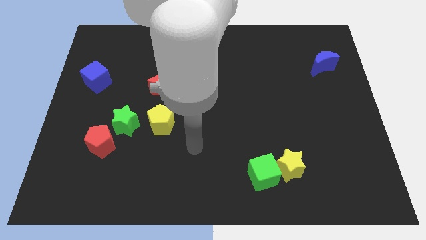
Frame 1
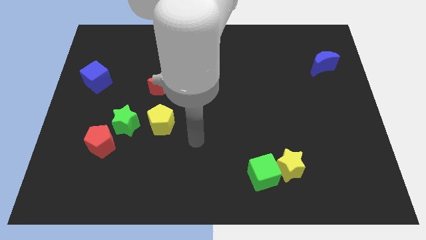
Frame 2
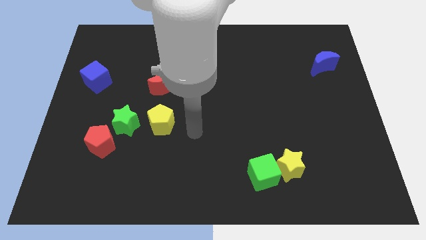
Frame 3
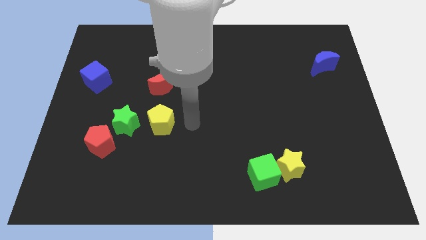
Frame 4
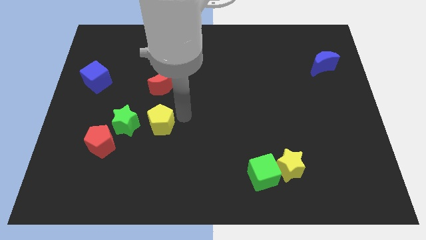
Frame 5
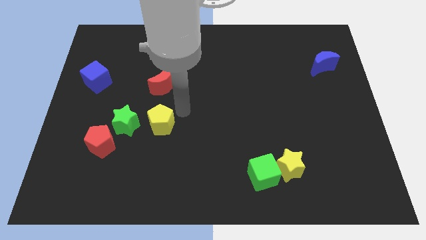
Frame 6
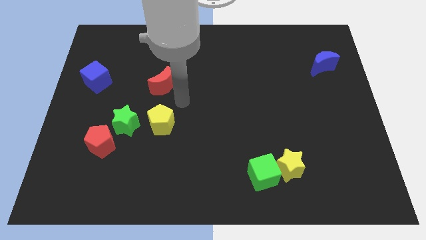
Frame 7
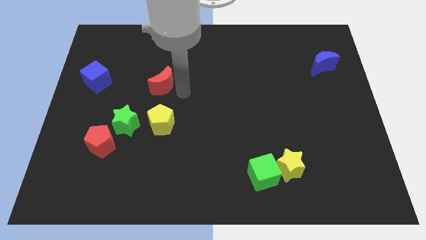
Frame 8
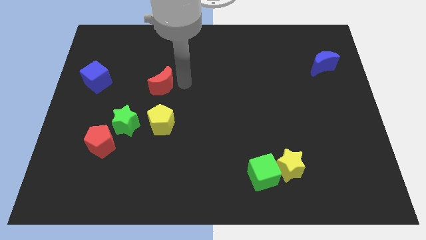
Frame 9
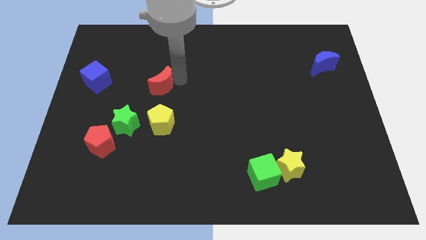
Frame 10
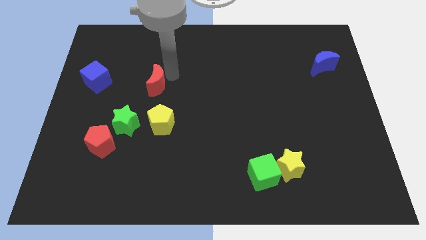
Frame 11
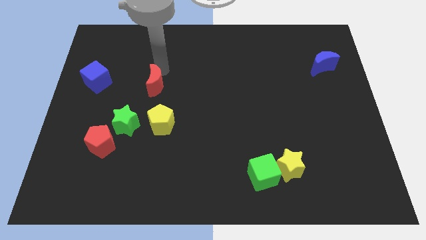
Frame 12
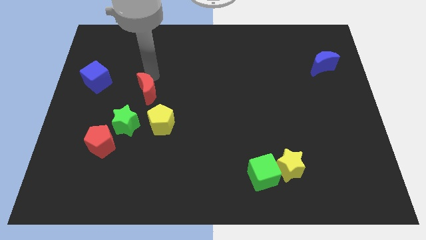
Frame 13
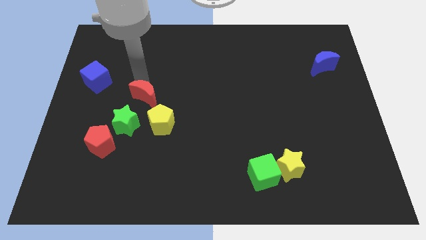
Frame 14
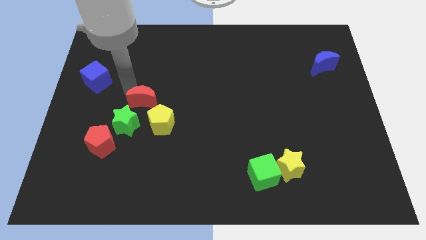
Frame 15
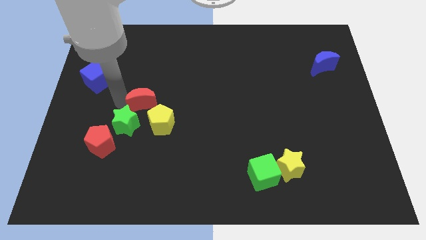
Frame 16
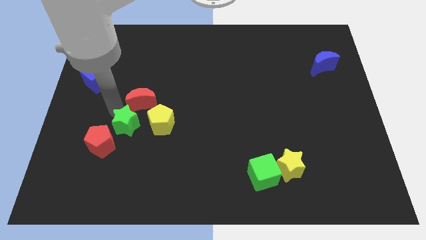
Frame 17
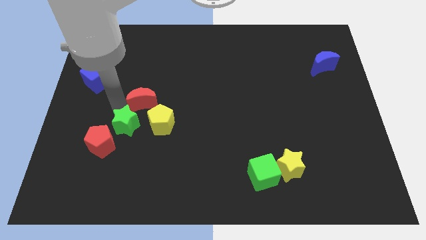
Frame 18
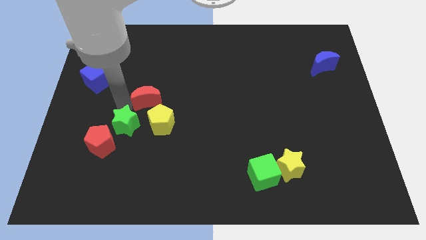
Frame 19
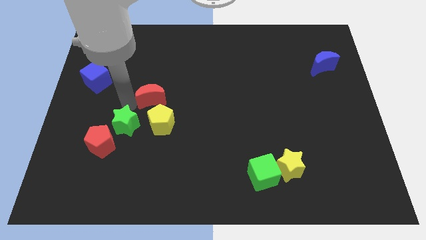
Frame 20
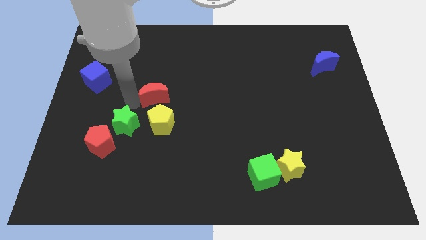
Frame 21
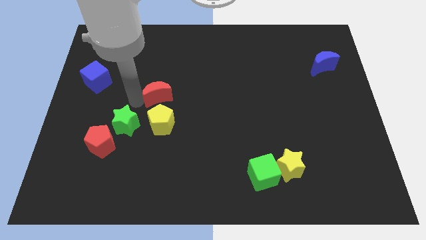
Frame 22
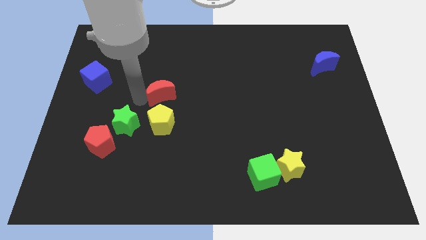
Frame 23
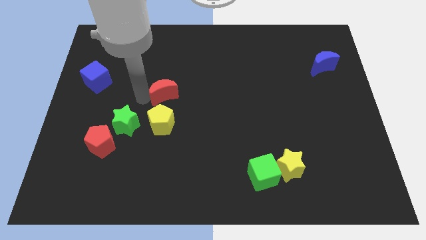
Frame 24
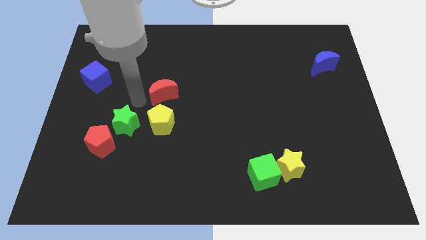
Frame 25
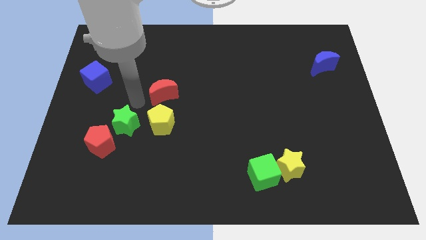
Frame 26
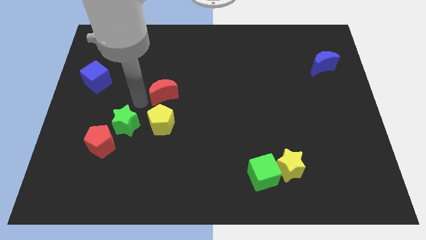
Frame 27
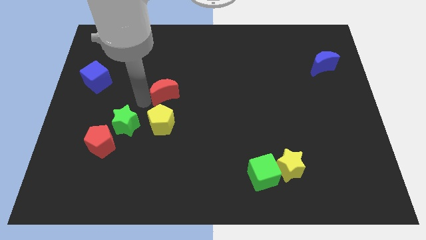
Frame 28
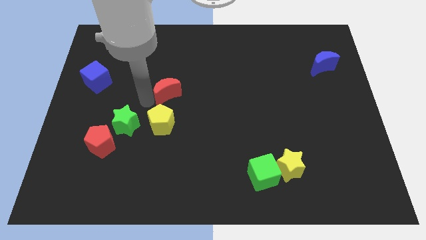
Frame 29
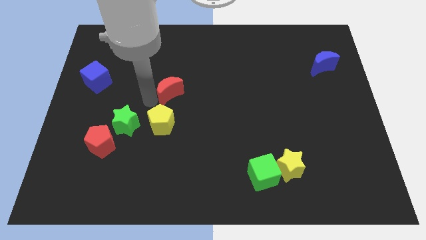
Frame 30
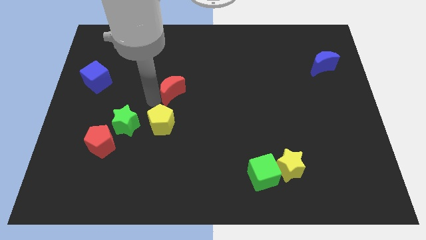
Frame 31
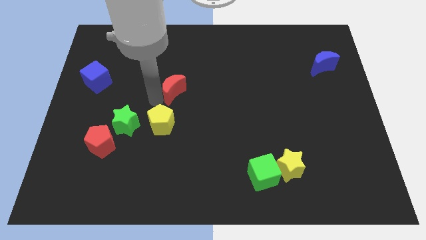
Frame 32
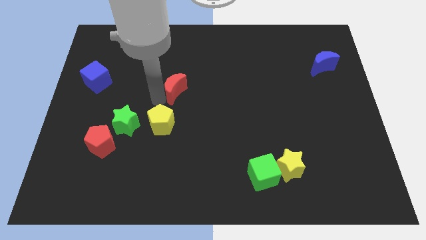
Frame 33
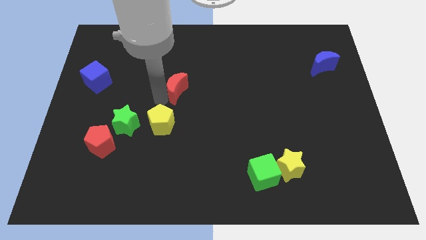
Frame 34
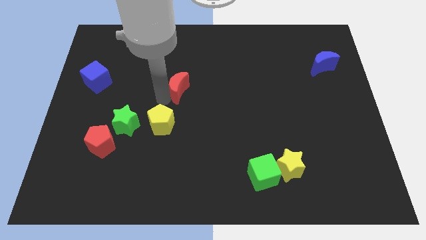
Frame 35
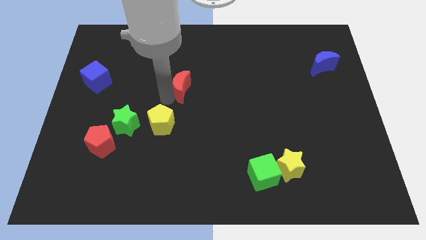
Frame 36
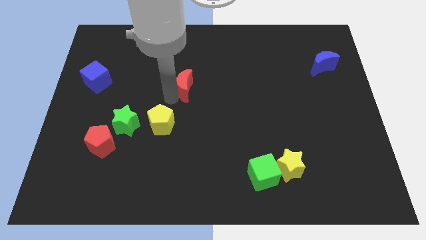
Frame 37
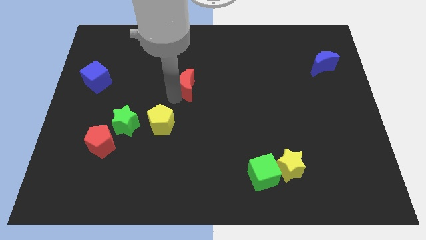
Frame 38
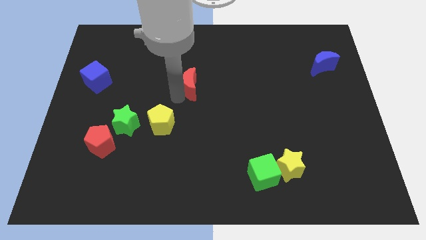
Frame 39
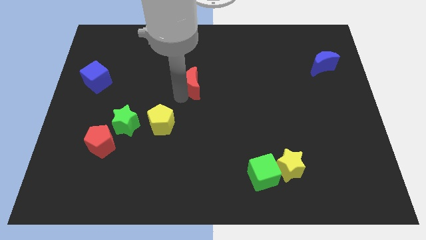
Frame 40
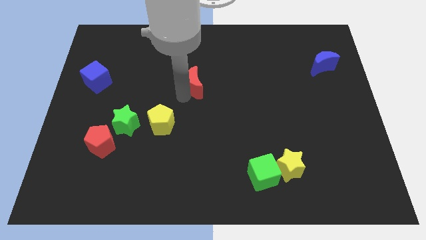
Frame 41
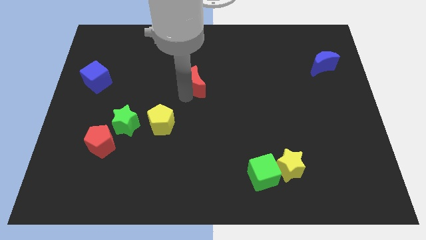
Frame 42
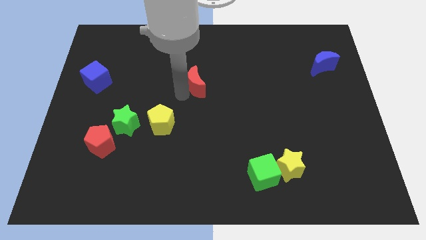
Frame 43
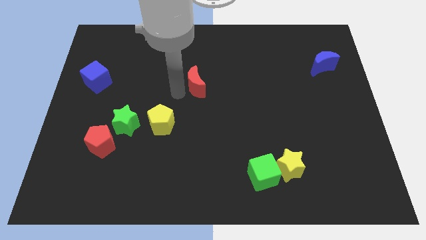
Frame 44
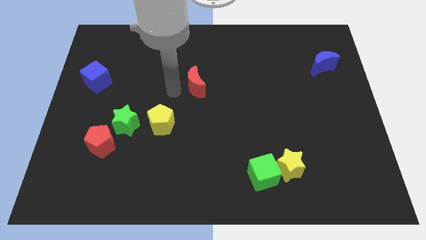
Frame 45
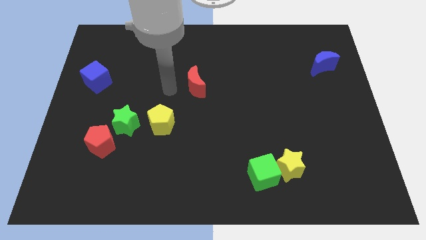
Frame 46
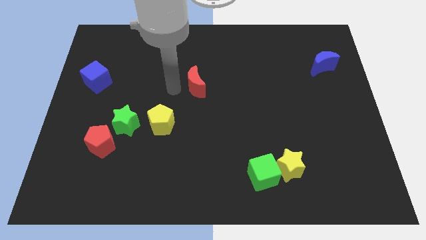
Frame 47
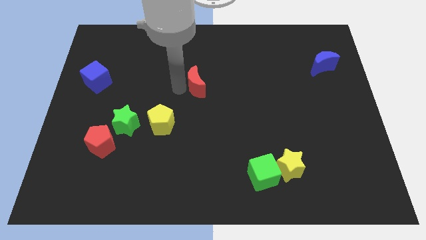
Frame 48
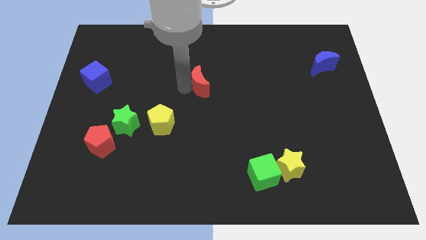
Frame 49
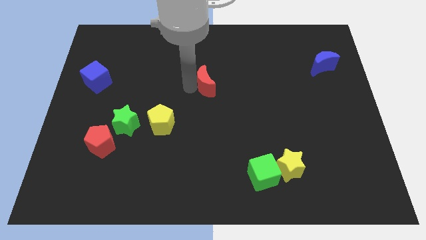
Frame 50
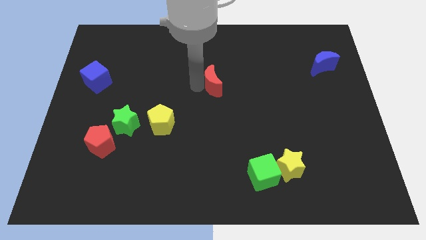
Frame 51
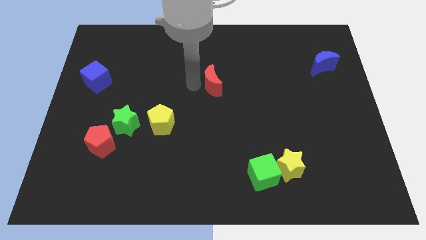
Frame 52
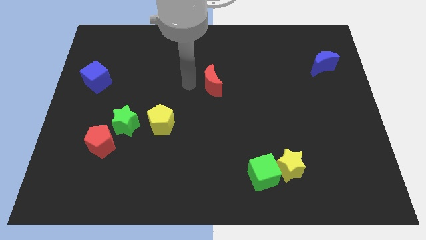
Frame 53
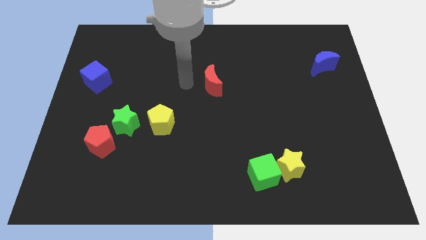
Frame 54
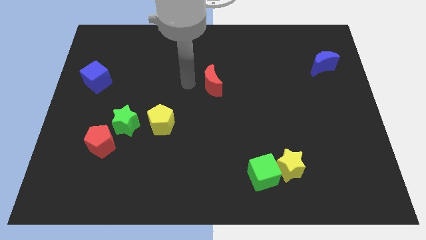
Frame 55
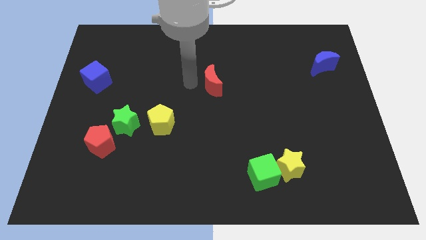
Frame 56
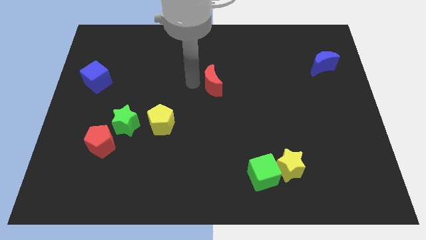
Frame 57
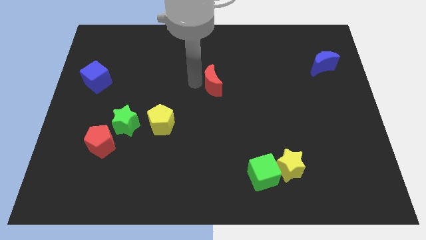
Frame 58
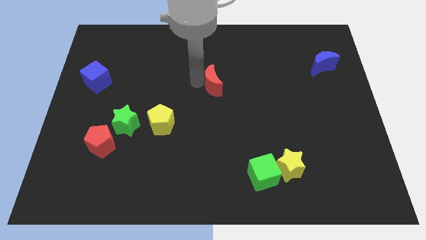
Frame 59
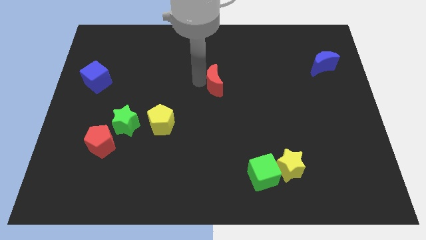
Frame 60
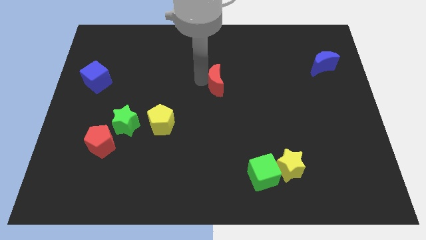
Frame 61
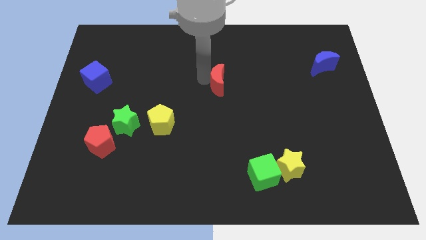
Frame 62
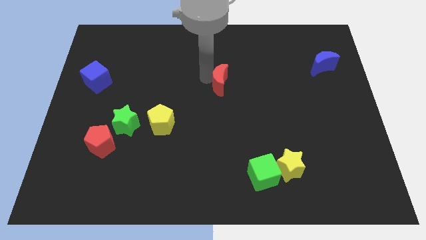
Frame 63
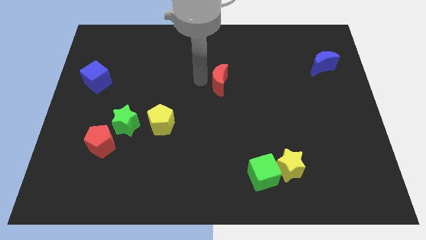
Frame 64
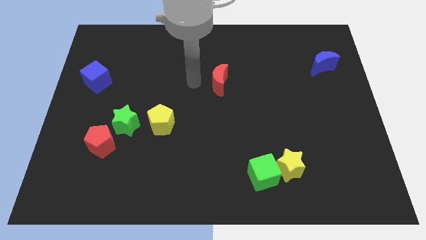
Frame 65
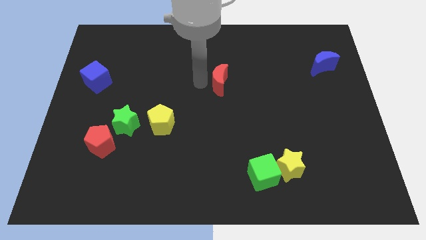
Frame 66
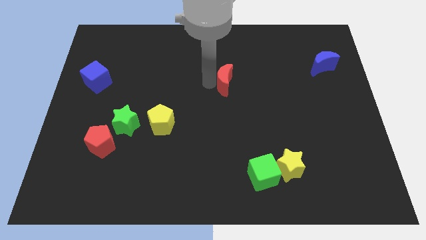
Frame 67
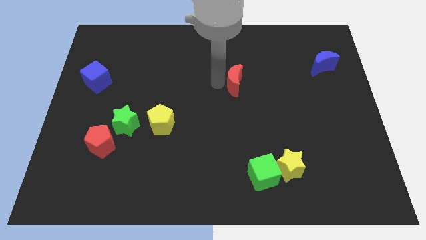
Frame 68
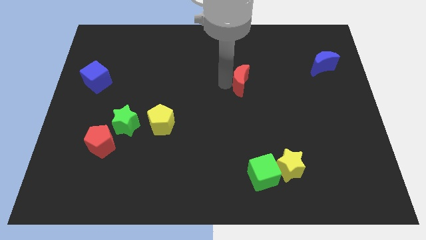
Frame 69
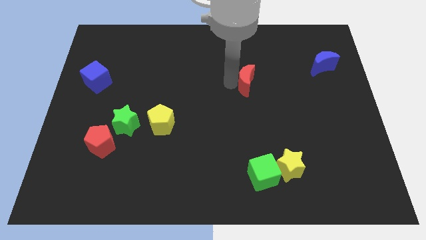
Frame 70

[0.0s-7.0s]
move the red moon right

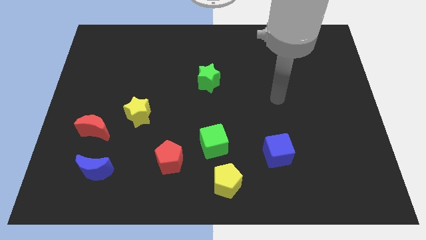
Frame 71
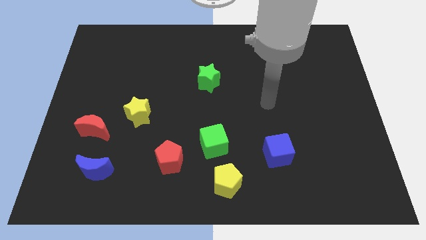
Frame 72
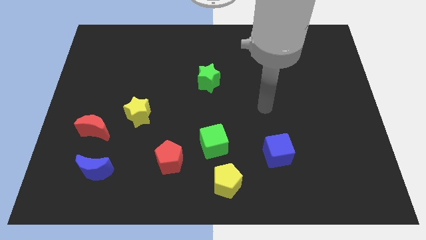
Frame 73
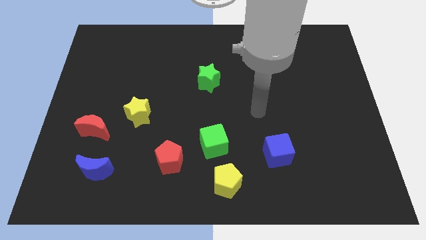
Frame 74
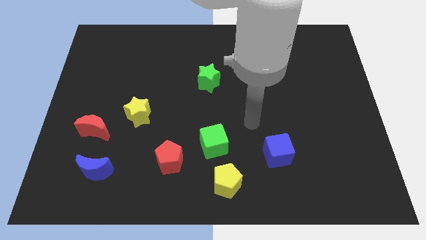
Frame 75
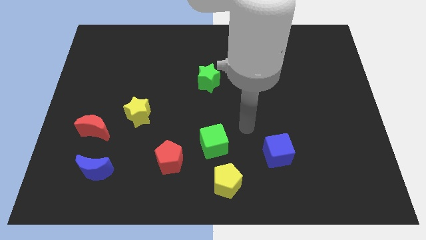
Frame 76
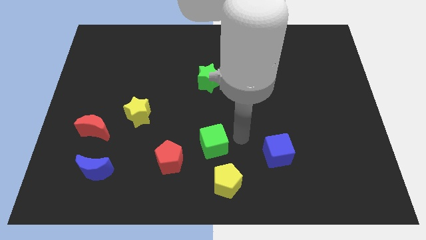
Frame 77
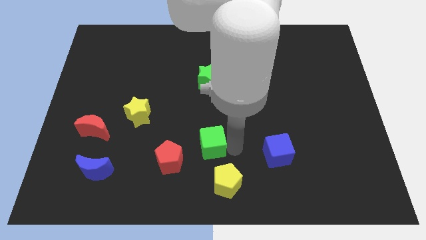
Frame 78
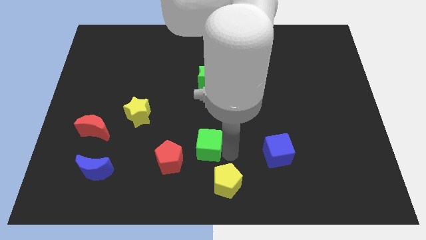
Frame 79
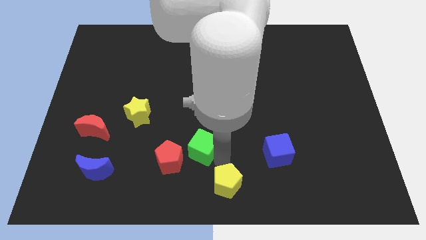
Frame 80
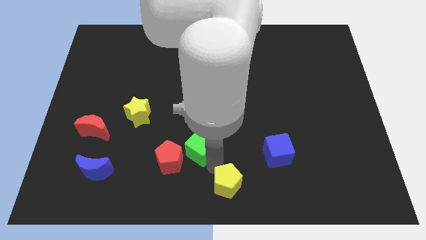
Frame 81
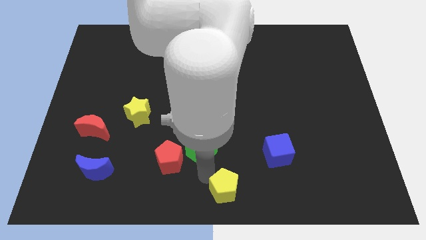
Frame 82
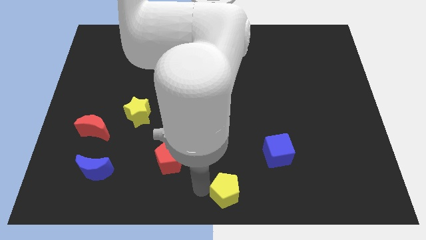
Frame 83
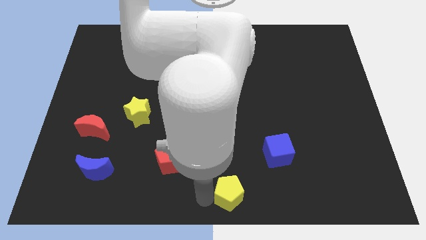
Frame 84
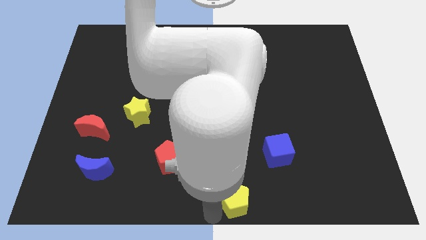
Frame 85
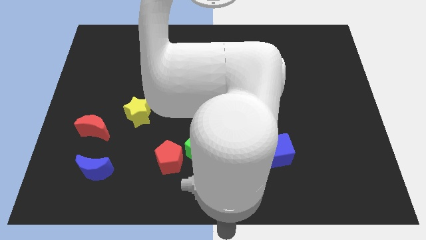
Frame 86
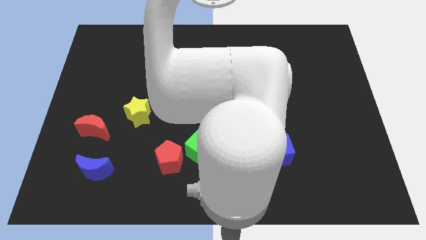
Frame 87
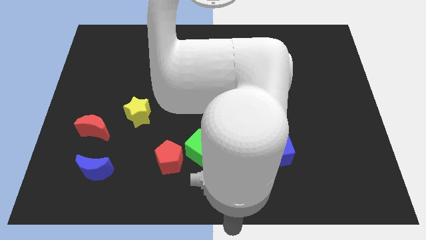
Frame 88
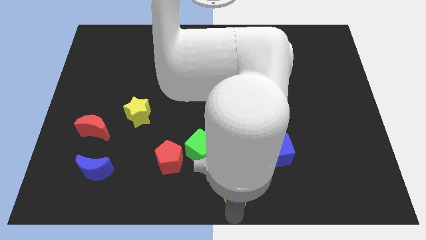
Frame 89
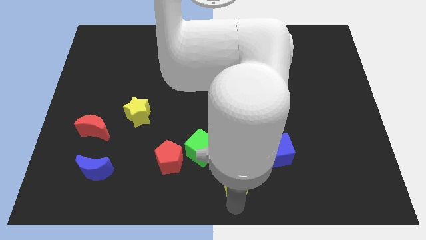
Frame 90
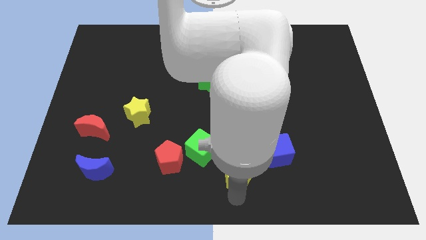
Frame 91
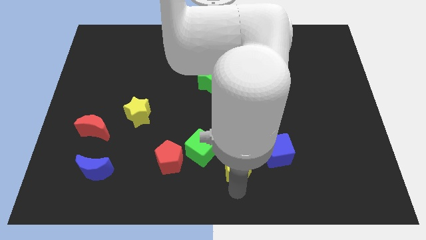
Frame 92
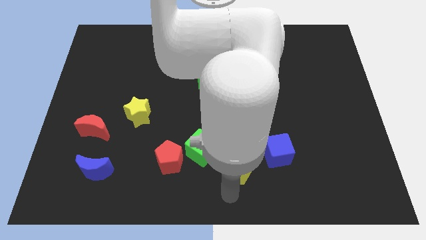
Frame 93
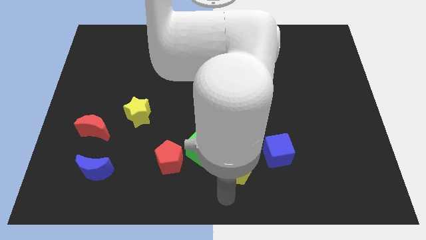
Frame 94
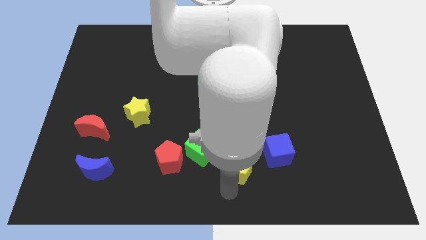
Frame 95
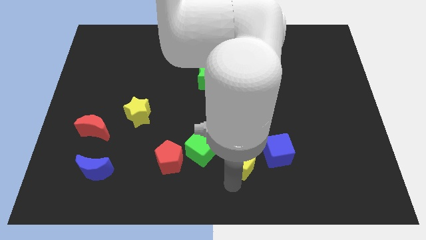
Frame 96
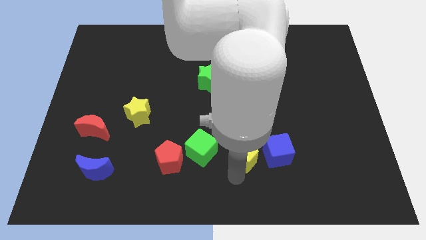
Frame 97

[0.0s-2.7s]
move the yellow pentagon upwards and right a little bit
